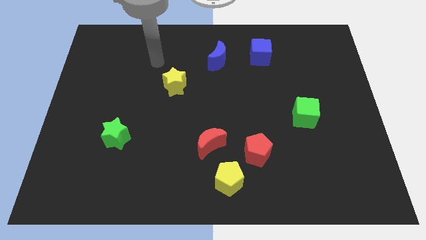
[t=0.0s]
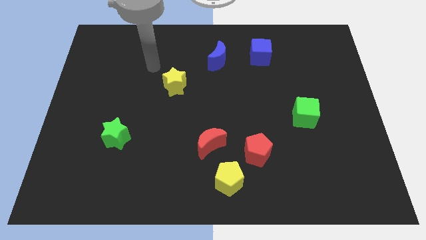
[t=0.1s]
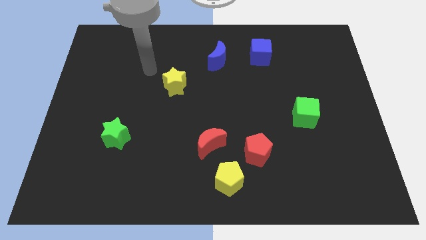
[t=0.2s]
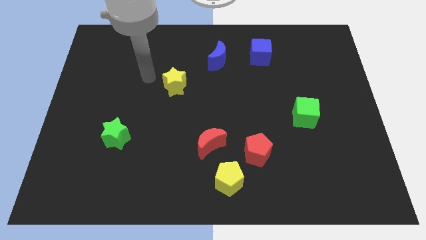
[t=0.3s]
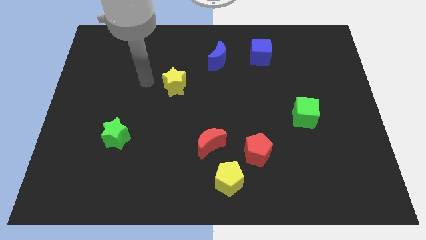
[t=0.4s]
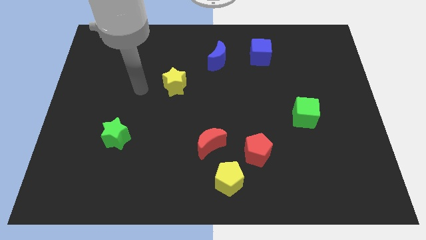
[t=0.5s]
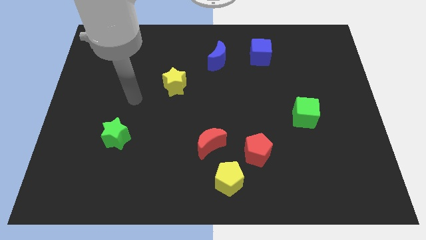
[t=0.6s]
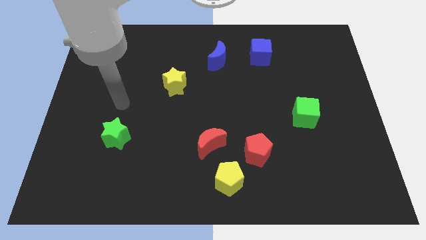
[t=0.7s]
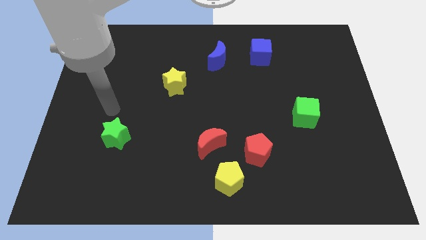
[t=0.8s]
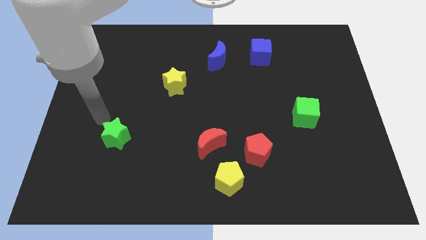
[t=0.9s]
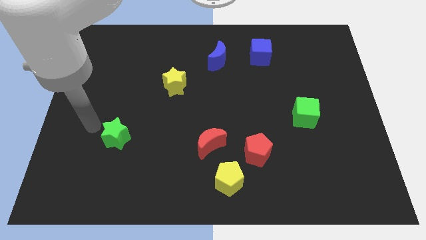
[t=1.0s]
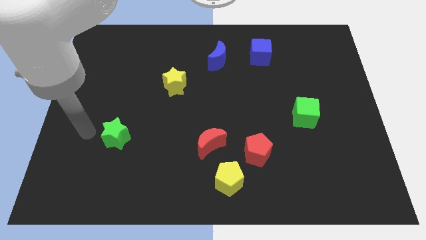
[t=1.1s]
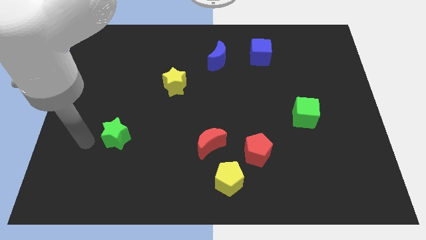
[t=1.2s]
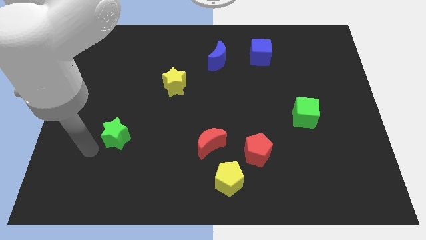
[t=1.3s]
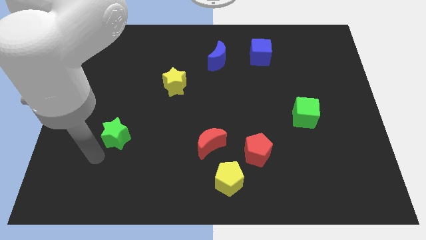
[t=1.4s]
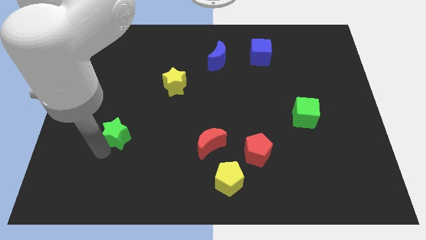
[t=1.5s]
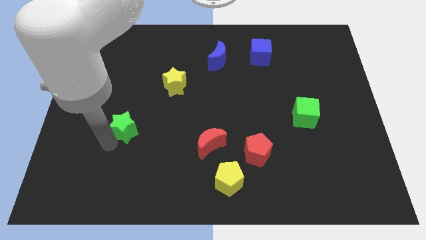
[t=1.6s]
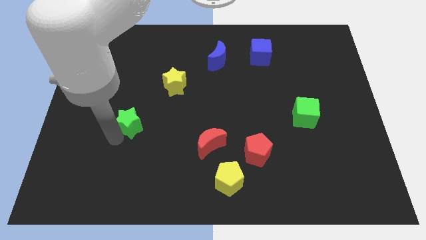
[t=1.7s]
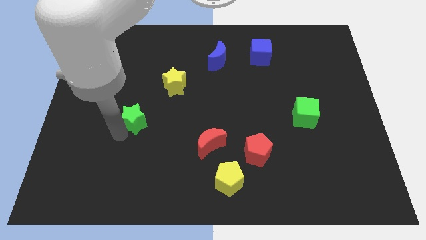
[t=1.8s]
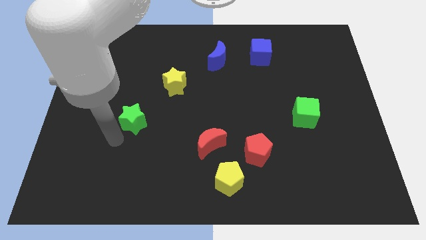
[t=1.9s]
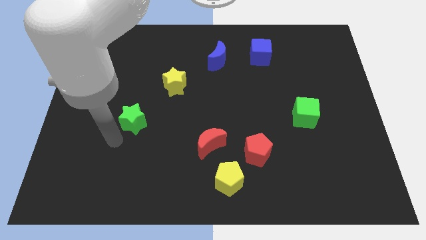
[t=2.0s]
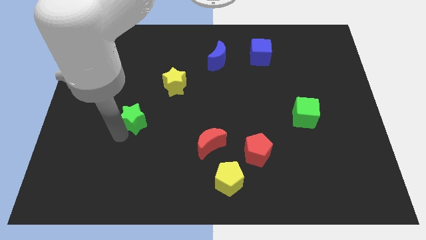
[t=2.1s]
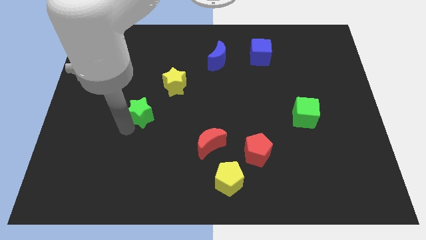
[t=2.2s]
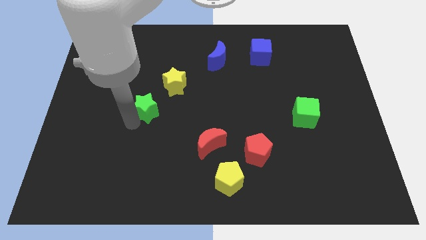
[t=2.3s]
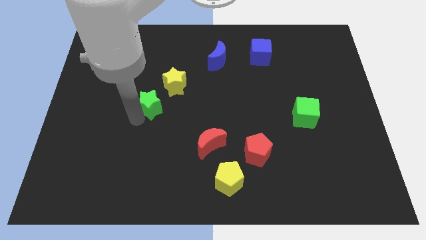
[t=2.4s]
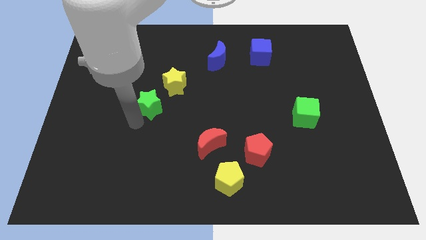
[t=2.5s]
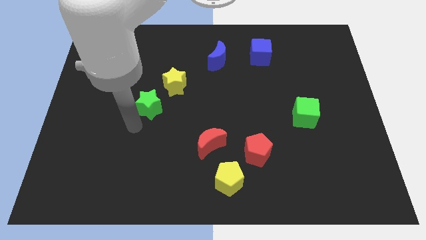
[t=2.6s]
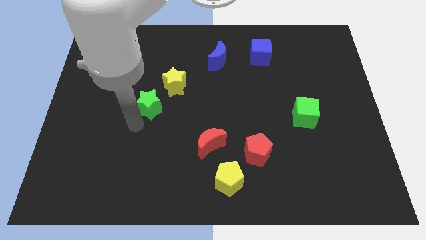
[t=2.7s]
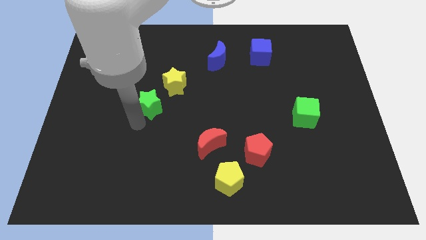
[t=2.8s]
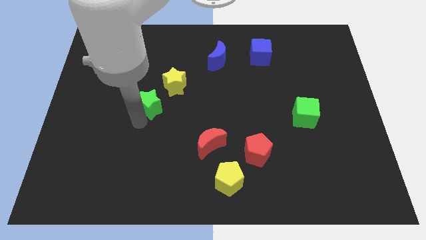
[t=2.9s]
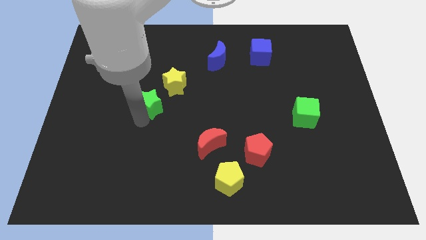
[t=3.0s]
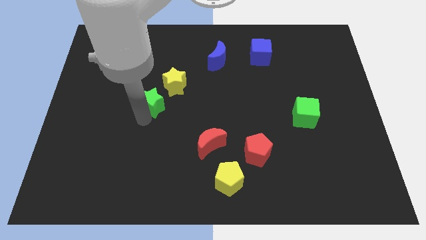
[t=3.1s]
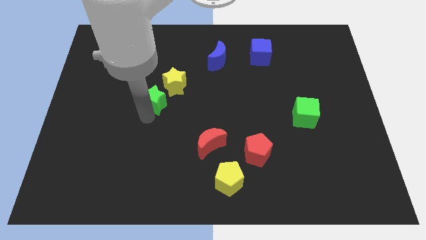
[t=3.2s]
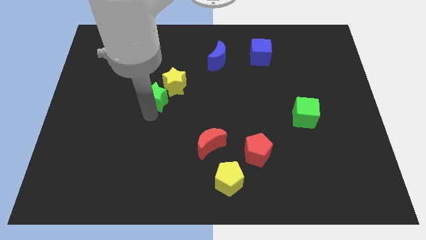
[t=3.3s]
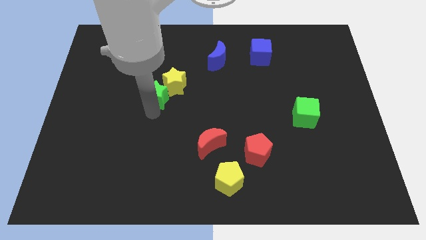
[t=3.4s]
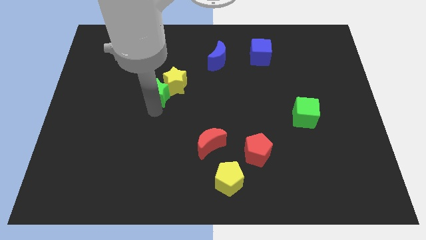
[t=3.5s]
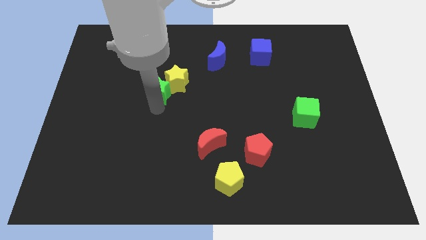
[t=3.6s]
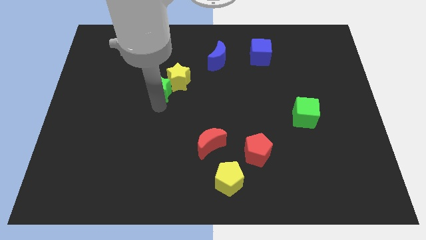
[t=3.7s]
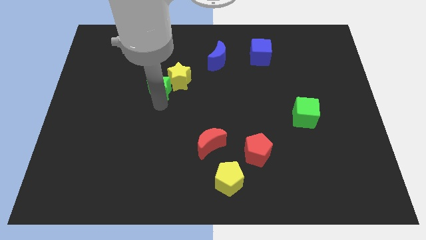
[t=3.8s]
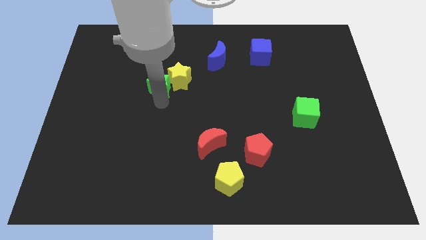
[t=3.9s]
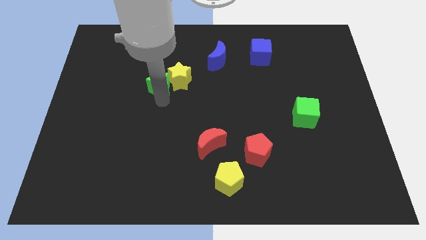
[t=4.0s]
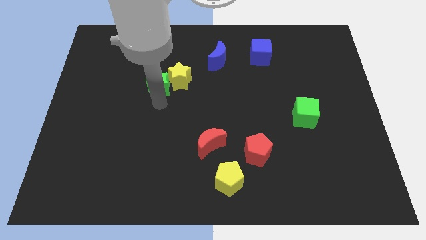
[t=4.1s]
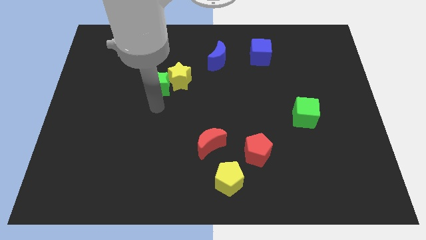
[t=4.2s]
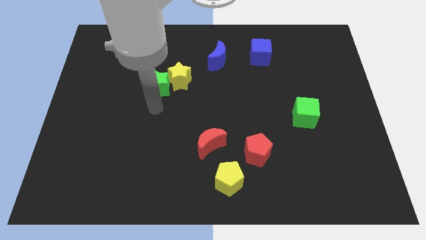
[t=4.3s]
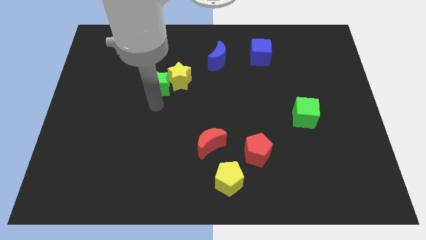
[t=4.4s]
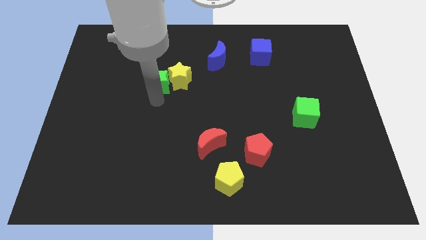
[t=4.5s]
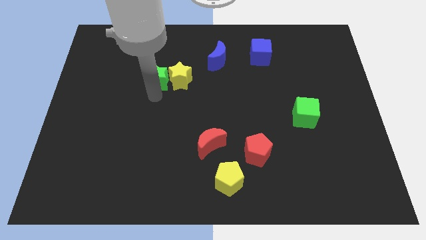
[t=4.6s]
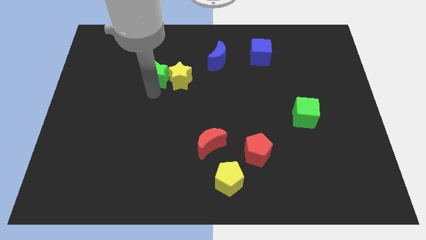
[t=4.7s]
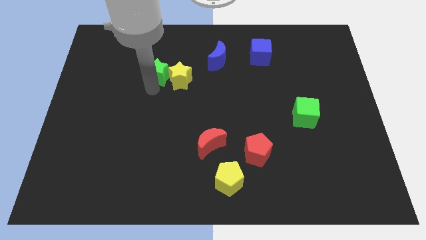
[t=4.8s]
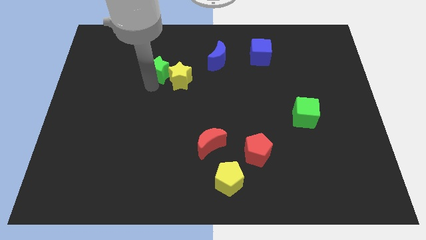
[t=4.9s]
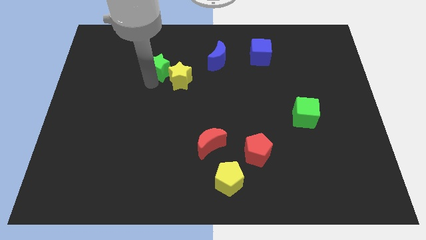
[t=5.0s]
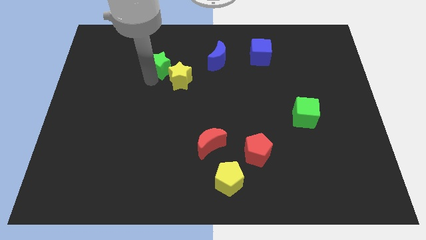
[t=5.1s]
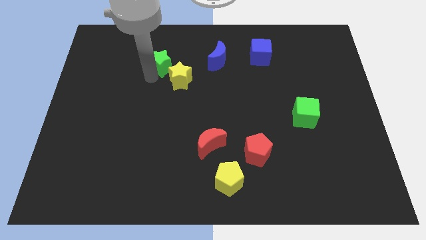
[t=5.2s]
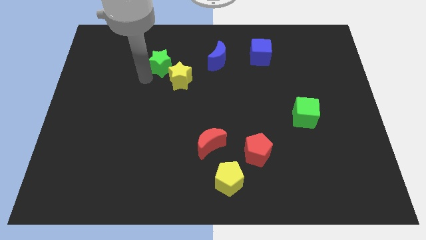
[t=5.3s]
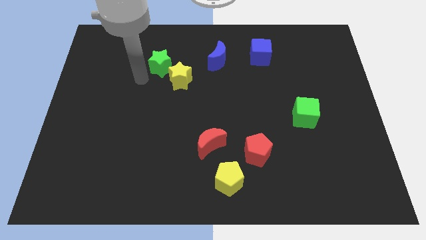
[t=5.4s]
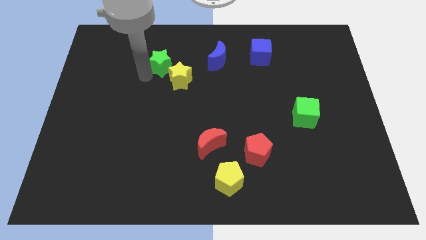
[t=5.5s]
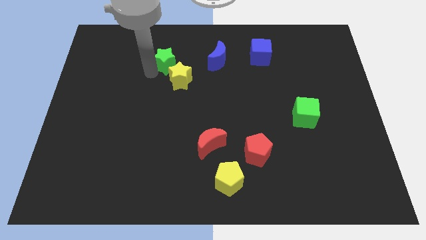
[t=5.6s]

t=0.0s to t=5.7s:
slide the green star to the top of the yellow star

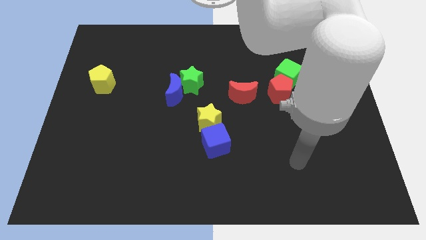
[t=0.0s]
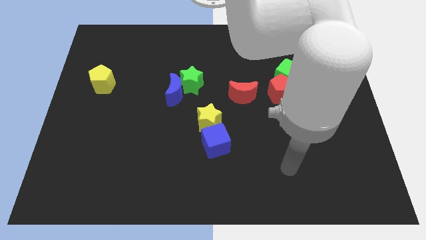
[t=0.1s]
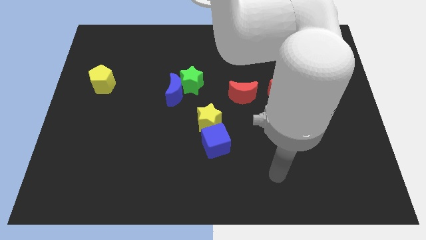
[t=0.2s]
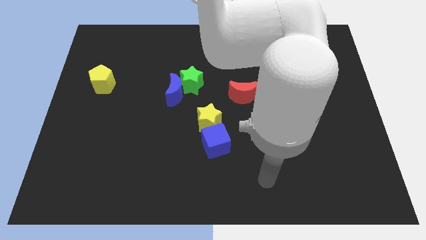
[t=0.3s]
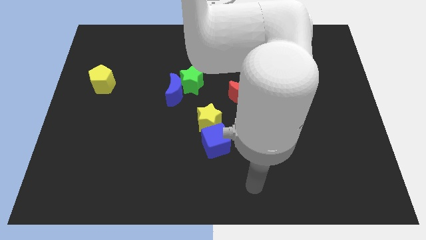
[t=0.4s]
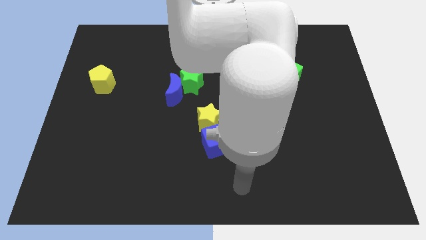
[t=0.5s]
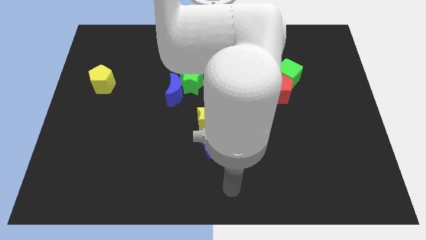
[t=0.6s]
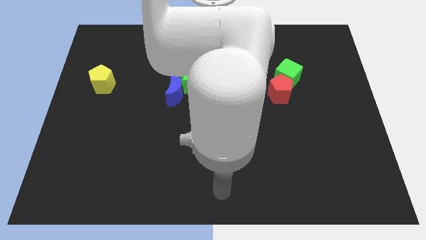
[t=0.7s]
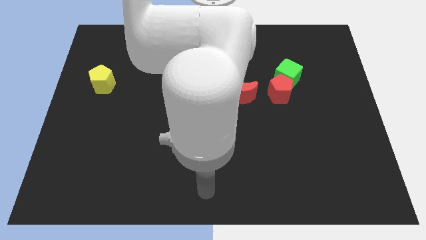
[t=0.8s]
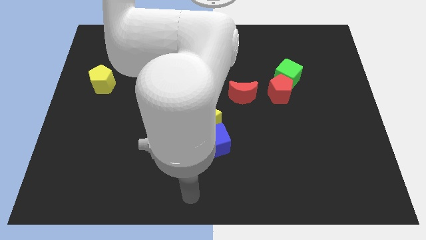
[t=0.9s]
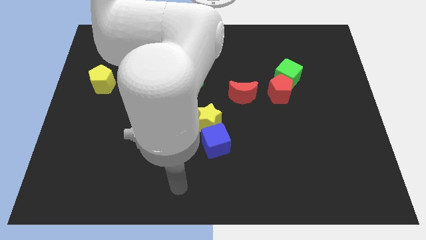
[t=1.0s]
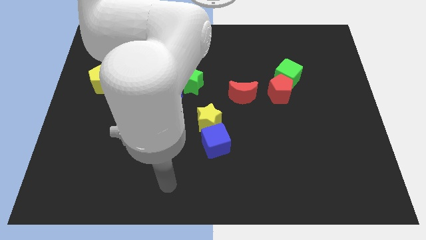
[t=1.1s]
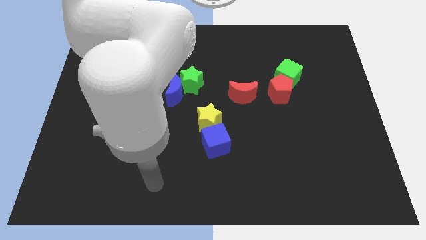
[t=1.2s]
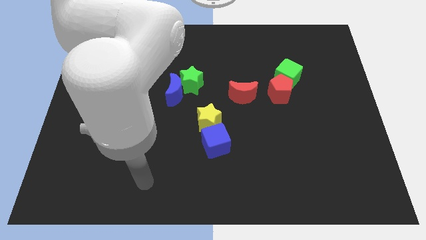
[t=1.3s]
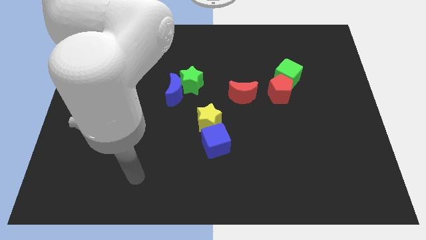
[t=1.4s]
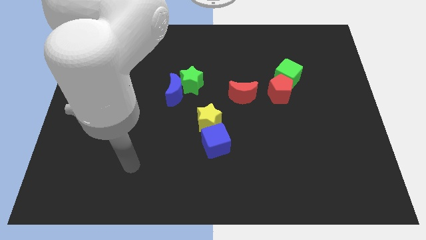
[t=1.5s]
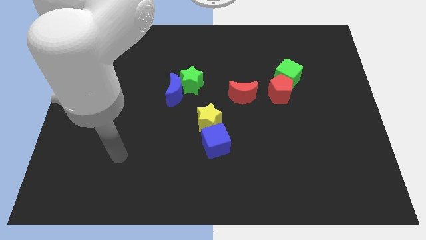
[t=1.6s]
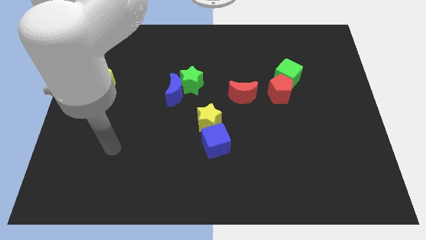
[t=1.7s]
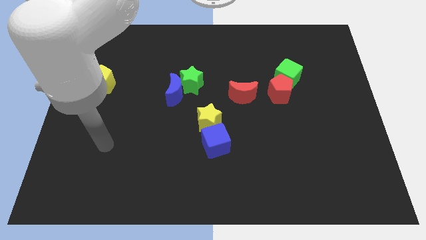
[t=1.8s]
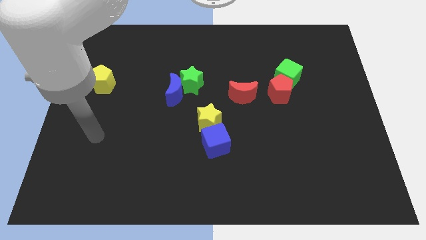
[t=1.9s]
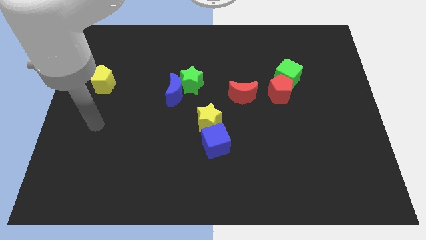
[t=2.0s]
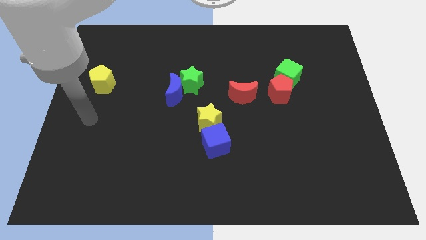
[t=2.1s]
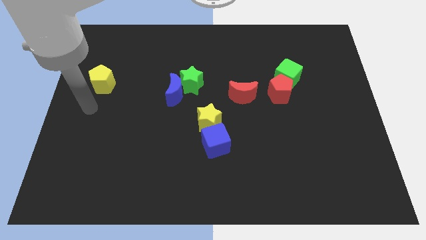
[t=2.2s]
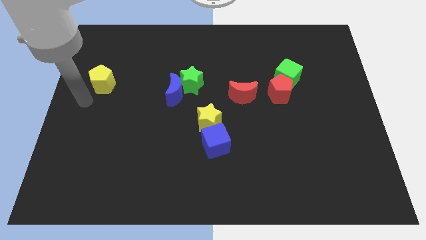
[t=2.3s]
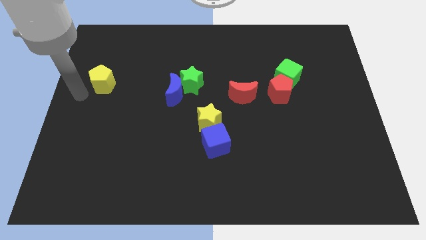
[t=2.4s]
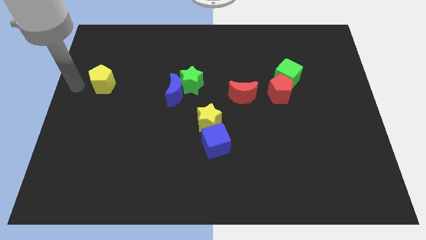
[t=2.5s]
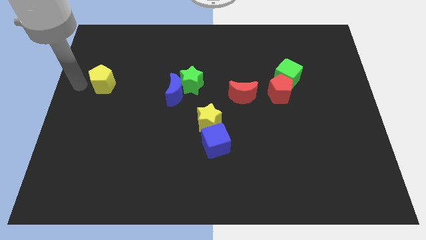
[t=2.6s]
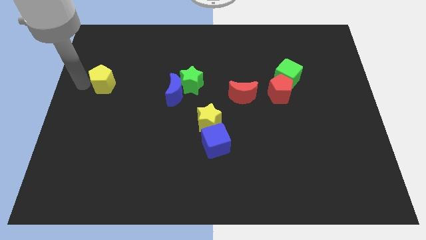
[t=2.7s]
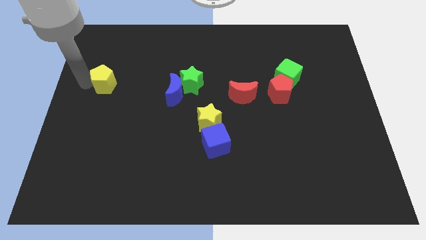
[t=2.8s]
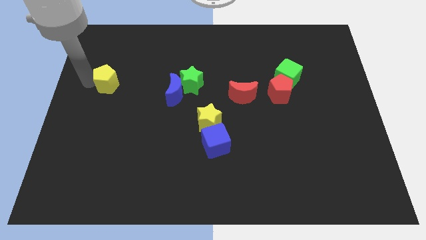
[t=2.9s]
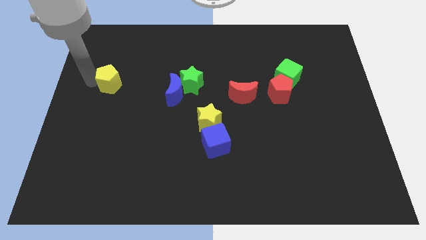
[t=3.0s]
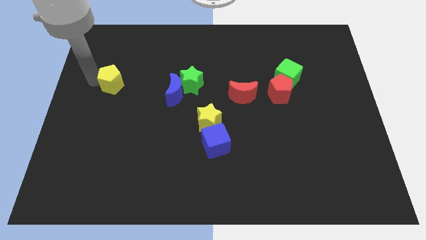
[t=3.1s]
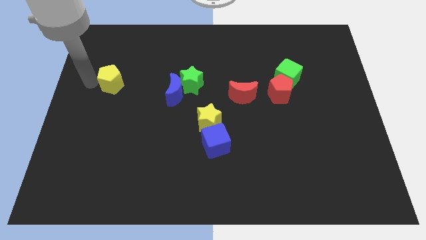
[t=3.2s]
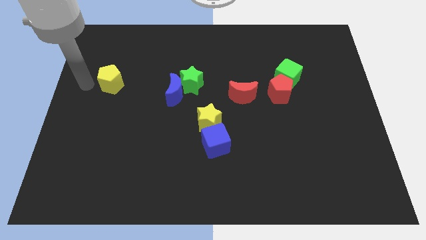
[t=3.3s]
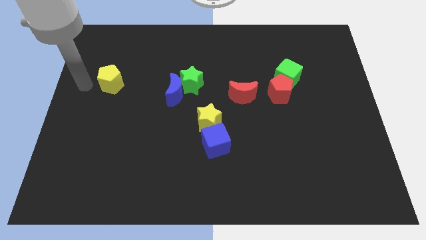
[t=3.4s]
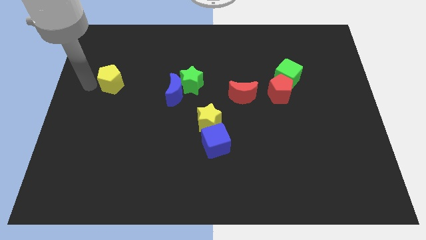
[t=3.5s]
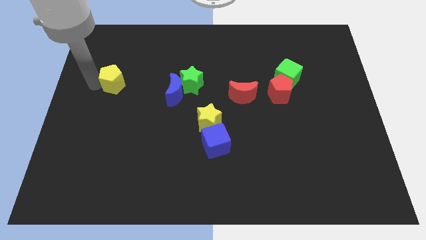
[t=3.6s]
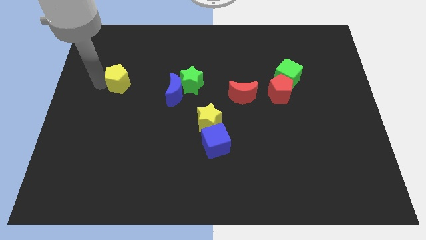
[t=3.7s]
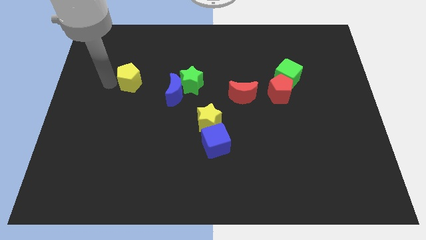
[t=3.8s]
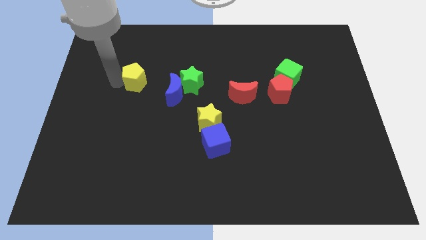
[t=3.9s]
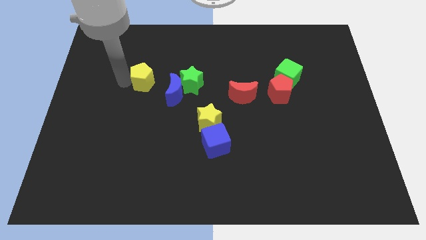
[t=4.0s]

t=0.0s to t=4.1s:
slide the yellow pentagon diagonally up and to the left of the blue moon